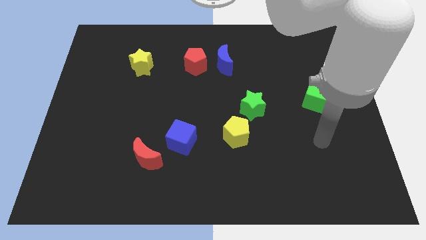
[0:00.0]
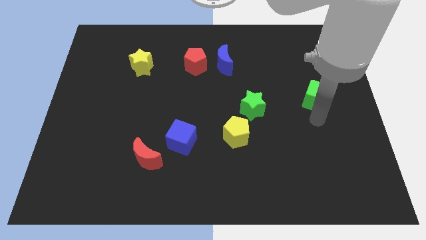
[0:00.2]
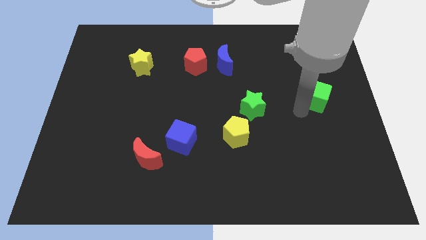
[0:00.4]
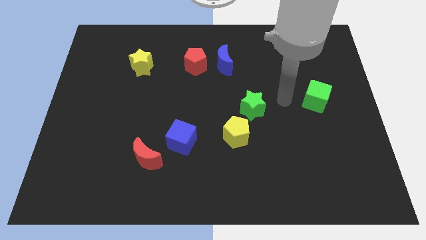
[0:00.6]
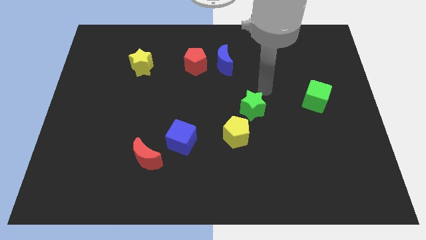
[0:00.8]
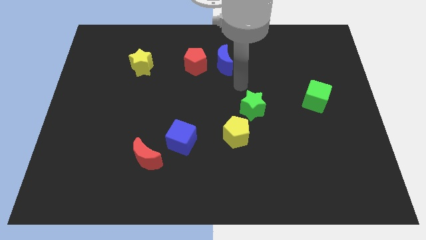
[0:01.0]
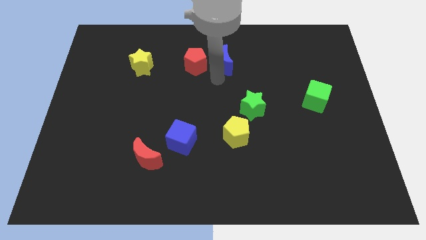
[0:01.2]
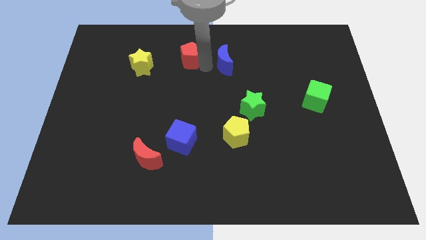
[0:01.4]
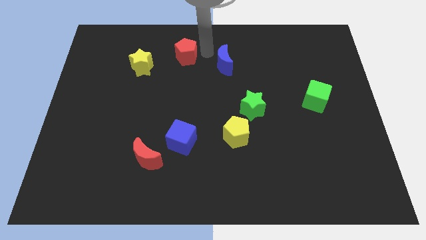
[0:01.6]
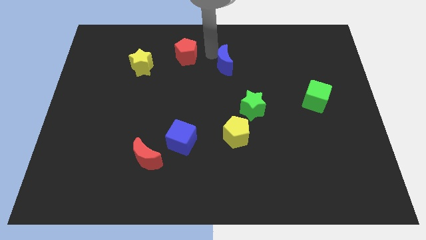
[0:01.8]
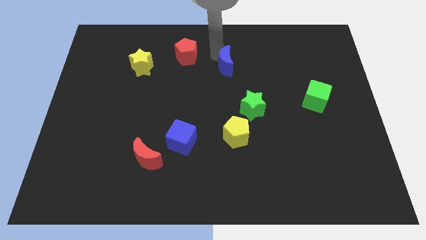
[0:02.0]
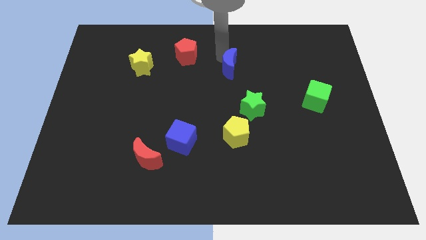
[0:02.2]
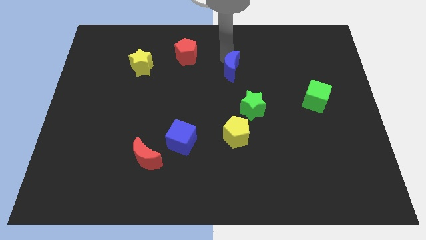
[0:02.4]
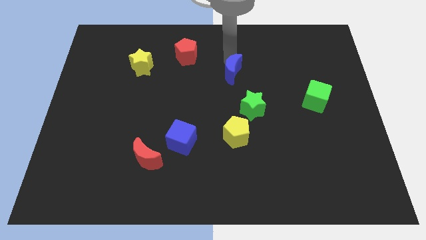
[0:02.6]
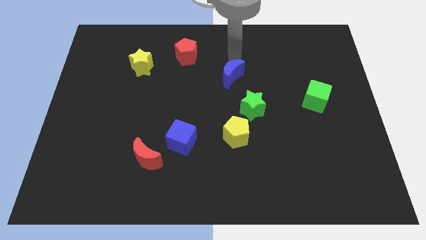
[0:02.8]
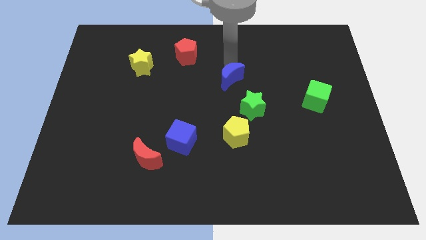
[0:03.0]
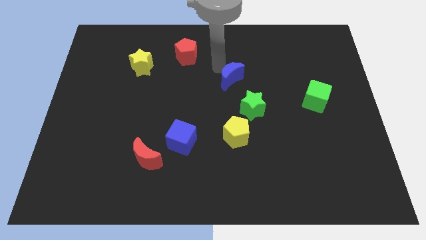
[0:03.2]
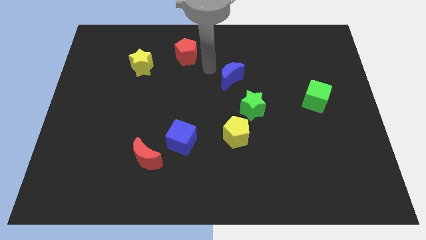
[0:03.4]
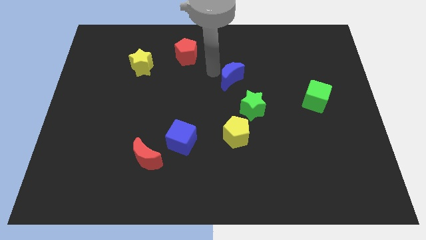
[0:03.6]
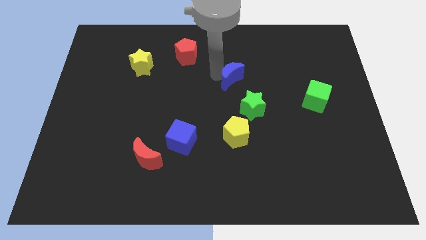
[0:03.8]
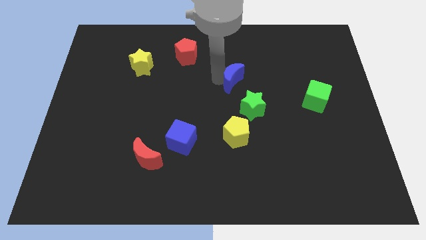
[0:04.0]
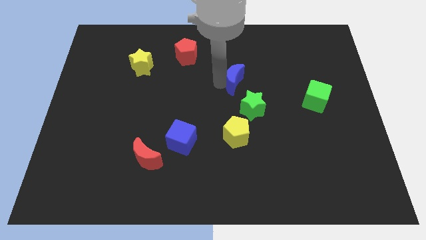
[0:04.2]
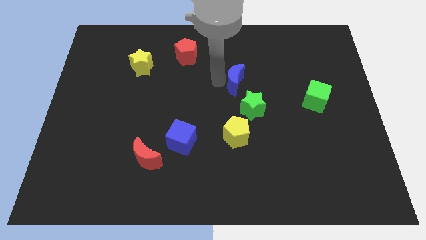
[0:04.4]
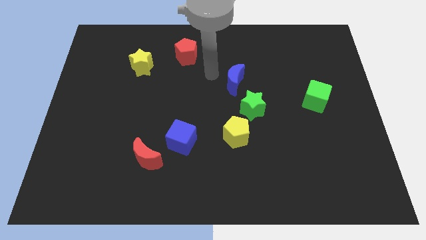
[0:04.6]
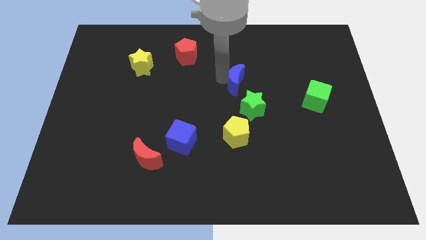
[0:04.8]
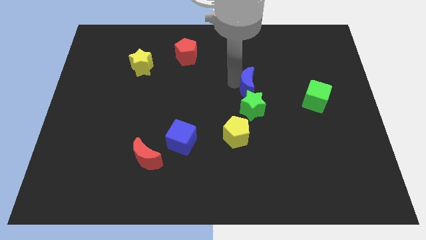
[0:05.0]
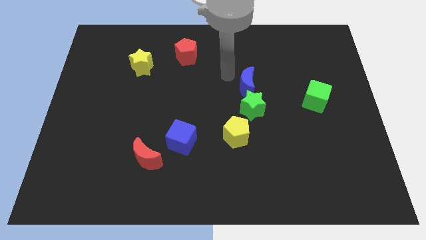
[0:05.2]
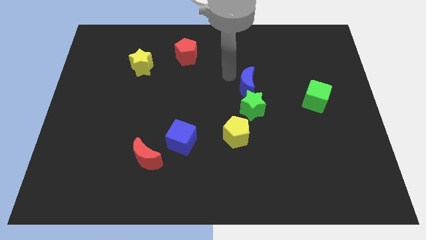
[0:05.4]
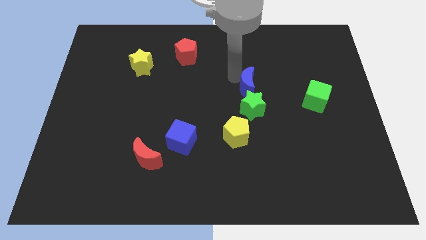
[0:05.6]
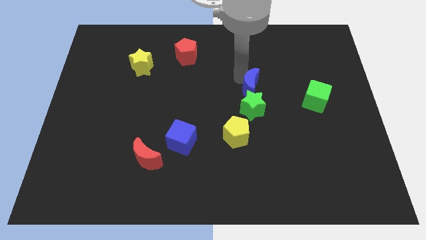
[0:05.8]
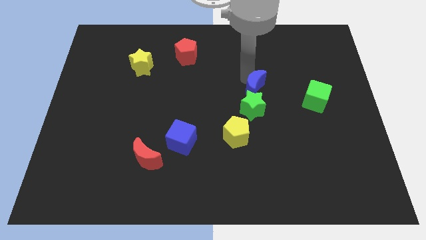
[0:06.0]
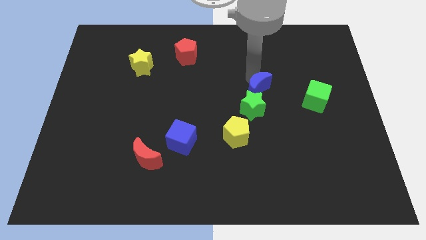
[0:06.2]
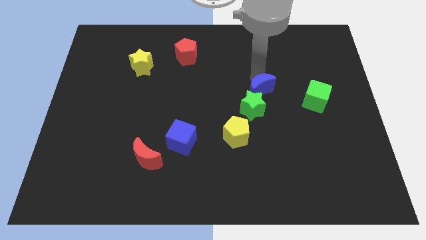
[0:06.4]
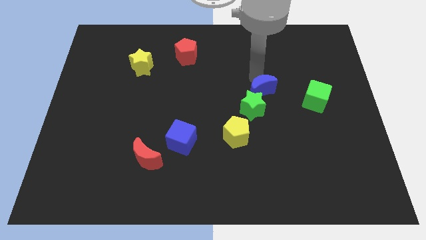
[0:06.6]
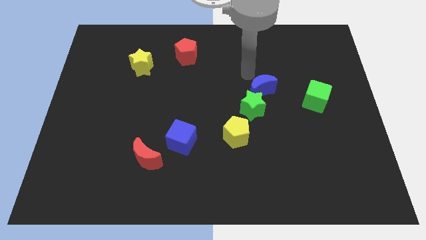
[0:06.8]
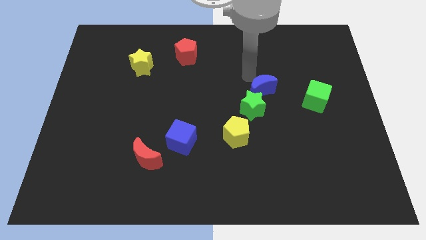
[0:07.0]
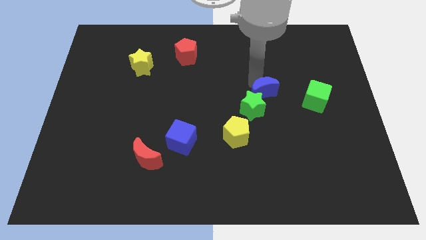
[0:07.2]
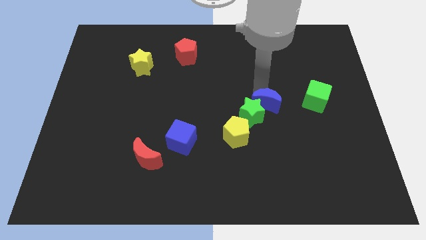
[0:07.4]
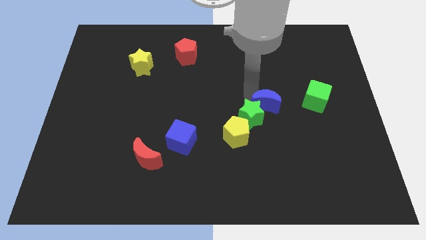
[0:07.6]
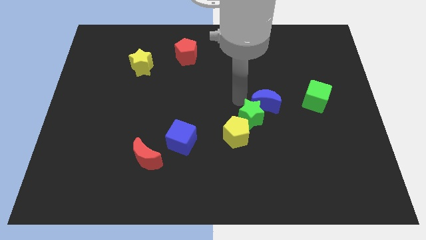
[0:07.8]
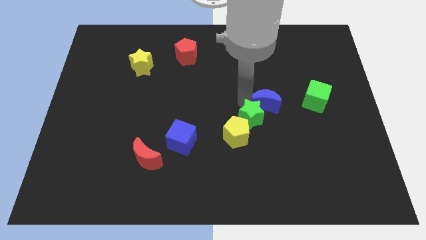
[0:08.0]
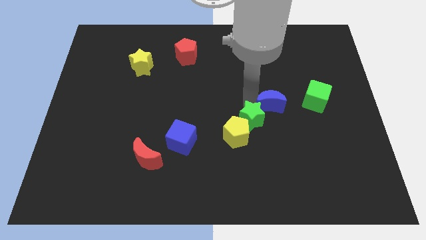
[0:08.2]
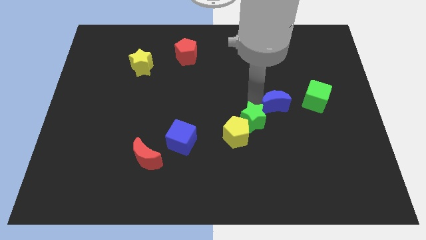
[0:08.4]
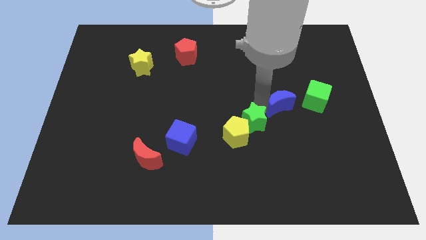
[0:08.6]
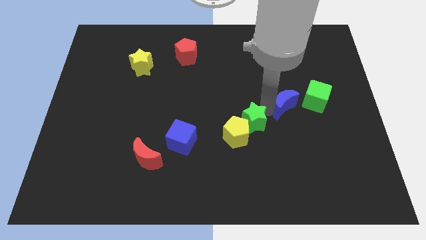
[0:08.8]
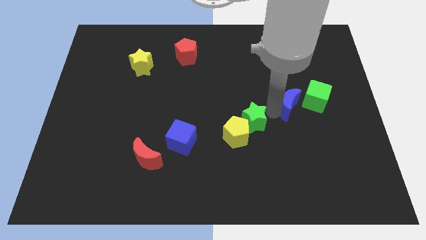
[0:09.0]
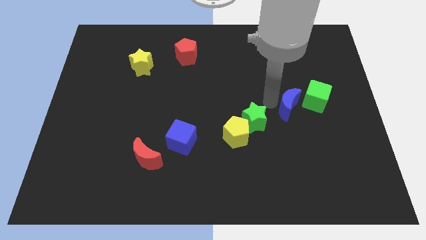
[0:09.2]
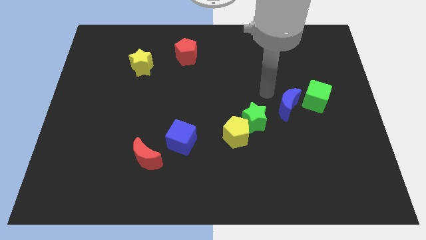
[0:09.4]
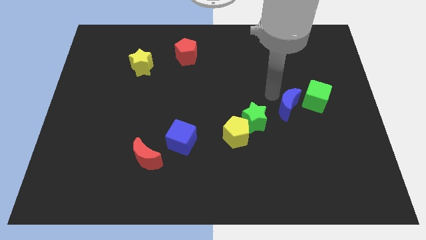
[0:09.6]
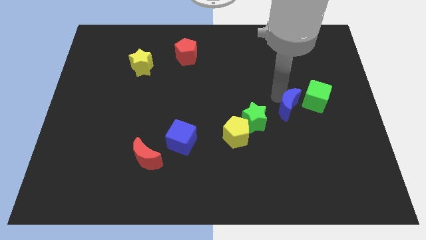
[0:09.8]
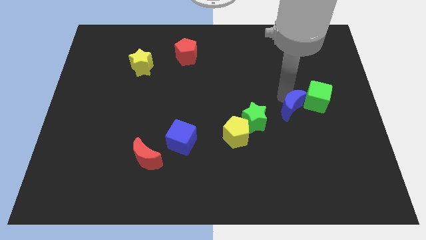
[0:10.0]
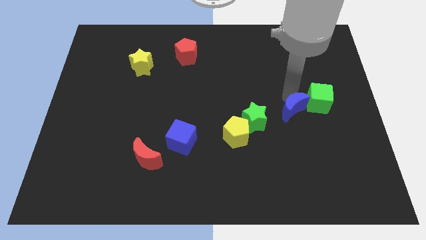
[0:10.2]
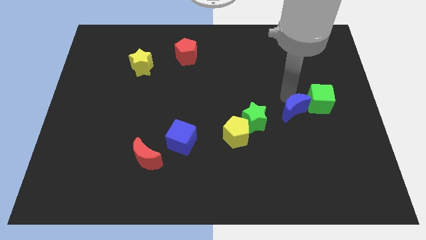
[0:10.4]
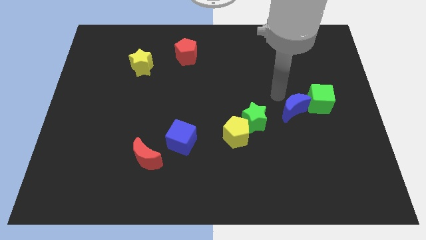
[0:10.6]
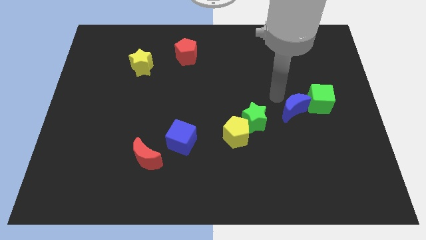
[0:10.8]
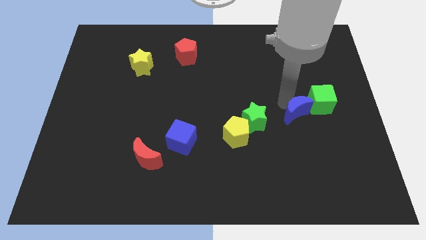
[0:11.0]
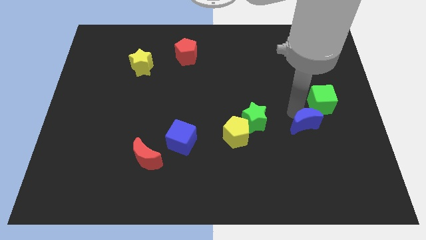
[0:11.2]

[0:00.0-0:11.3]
move the blue moon to the bottom side of the green cube

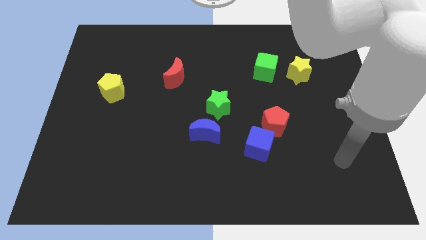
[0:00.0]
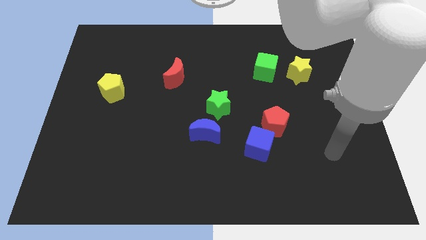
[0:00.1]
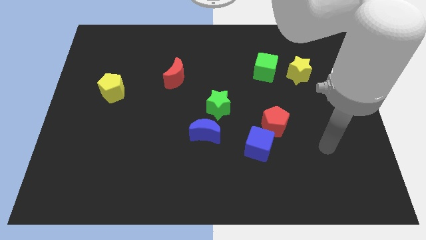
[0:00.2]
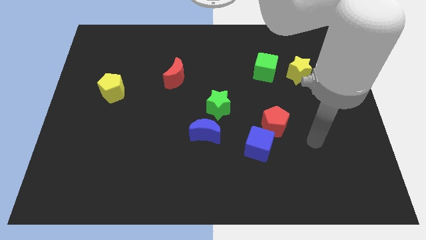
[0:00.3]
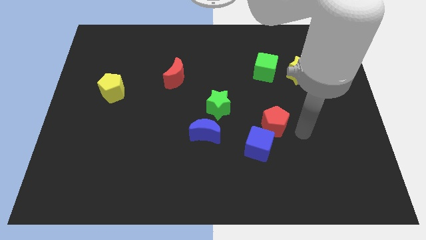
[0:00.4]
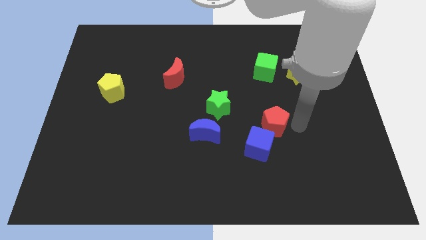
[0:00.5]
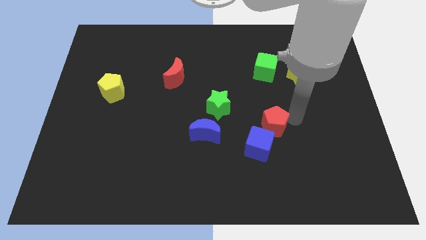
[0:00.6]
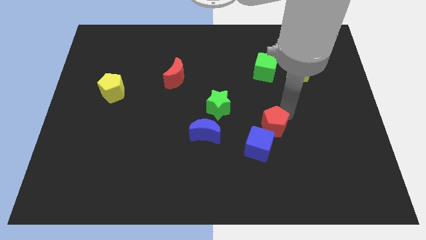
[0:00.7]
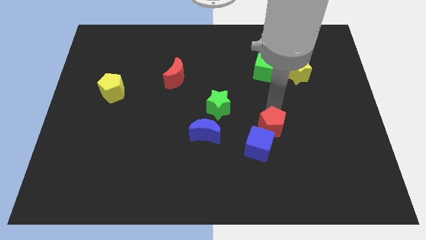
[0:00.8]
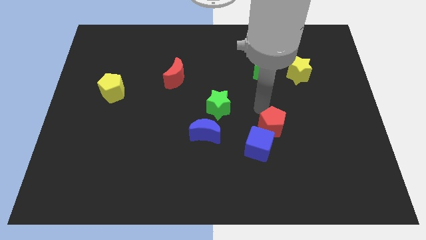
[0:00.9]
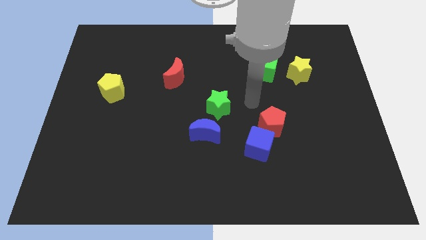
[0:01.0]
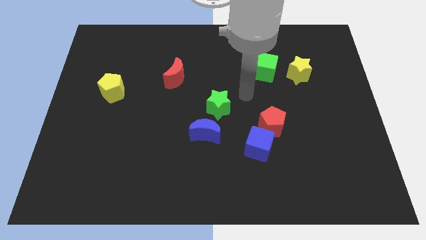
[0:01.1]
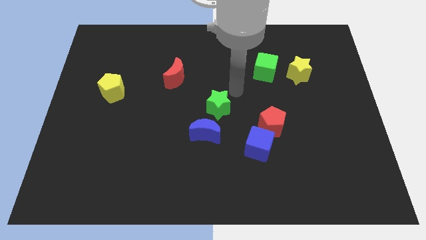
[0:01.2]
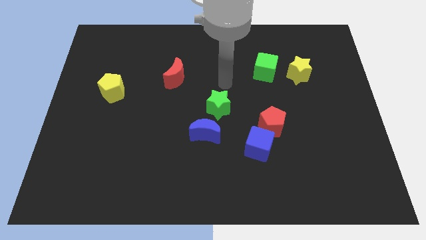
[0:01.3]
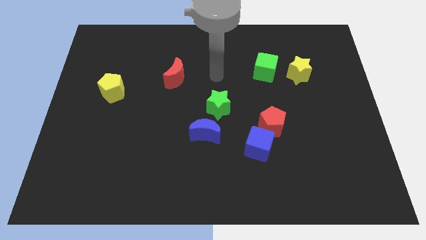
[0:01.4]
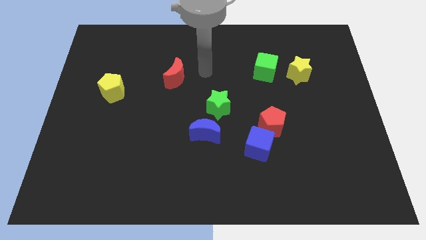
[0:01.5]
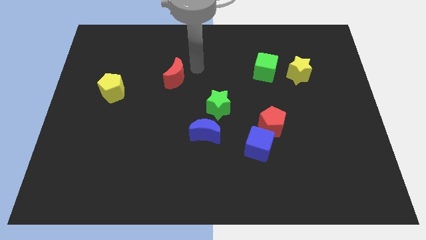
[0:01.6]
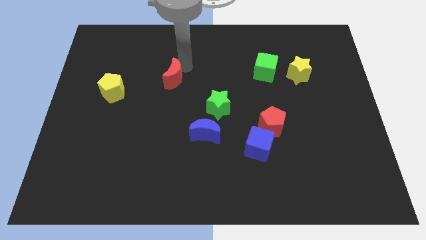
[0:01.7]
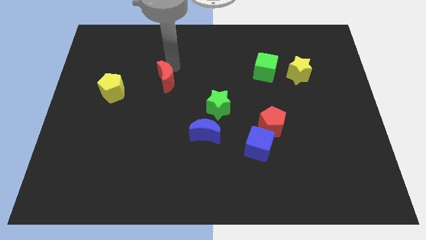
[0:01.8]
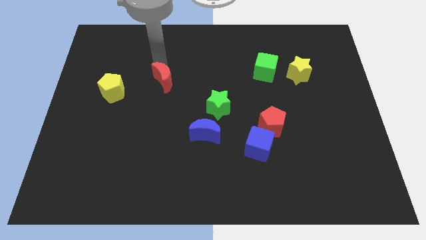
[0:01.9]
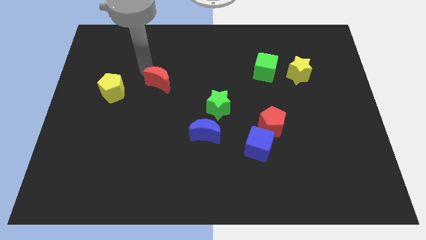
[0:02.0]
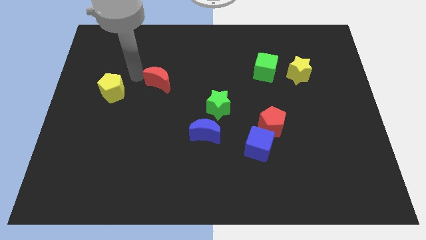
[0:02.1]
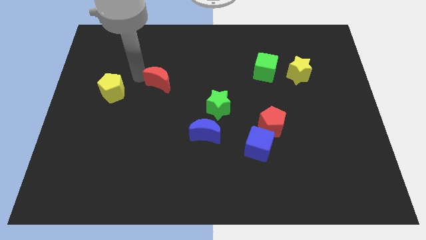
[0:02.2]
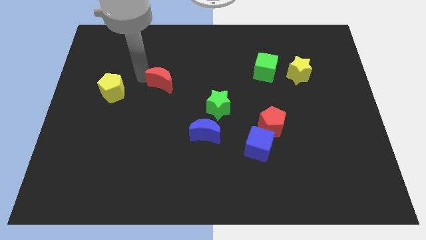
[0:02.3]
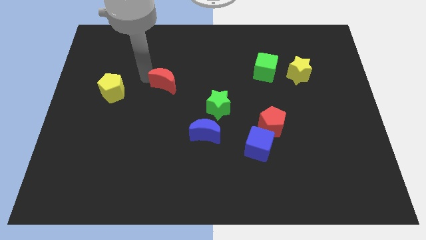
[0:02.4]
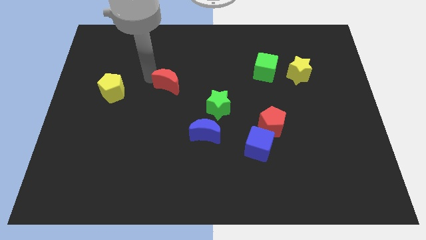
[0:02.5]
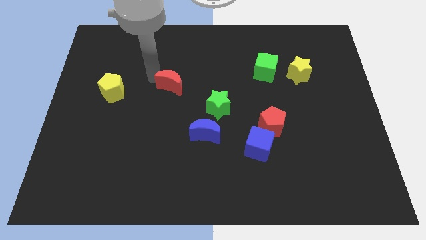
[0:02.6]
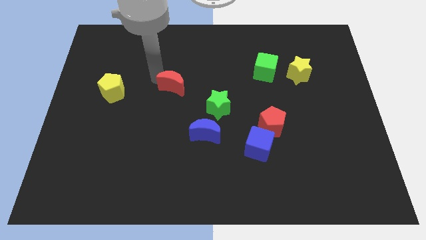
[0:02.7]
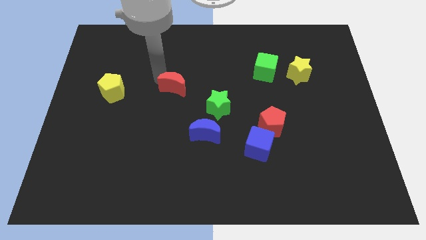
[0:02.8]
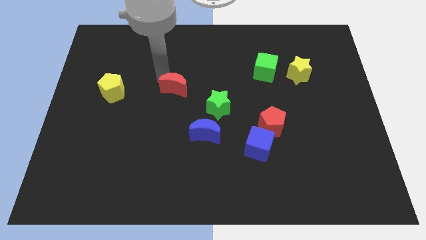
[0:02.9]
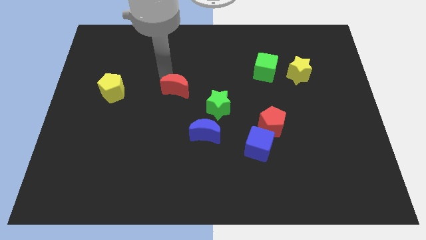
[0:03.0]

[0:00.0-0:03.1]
move the red moon to the top left side of the green star
